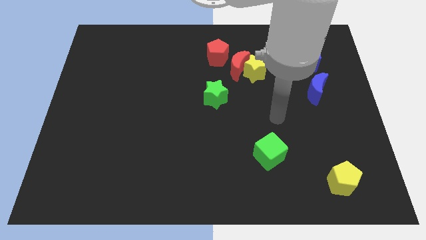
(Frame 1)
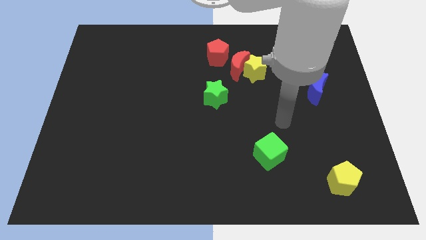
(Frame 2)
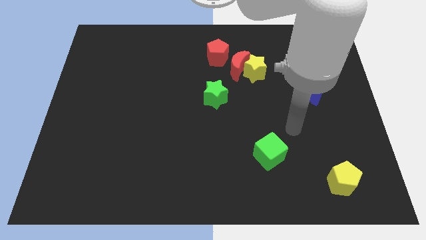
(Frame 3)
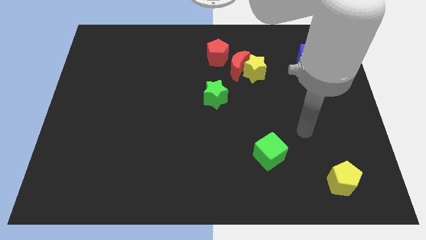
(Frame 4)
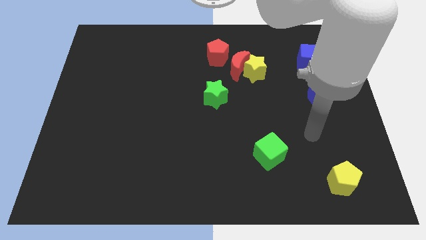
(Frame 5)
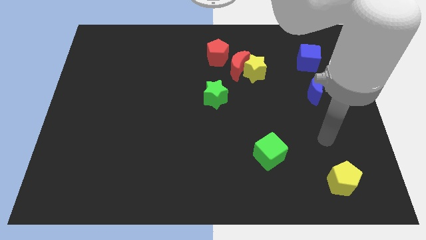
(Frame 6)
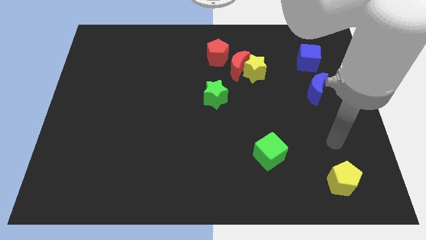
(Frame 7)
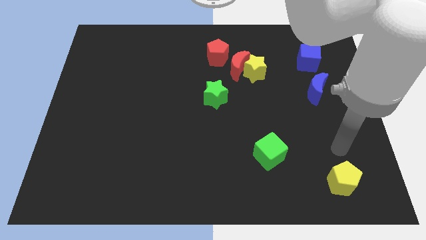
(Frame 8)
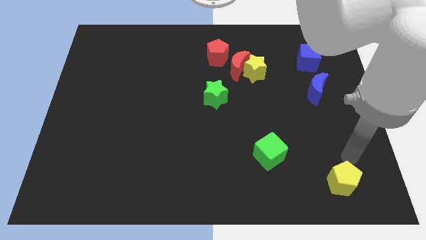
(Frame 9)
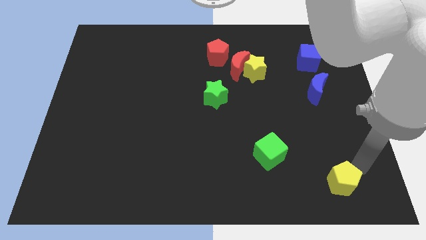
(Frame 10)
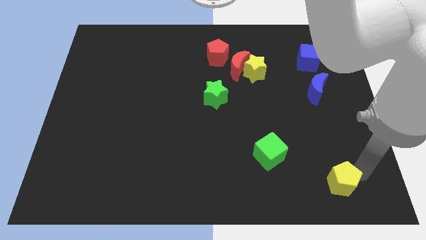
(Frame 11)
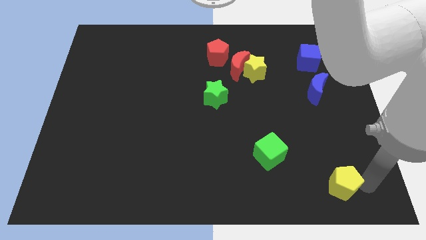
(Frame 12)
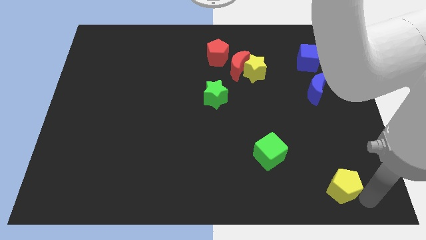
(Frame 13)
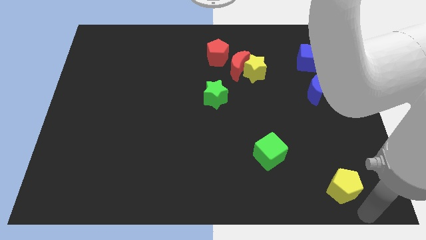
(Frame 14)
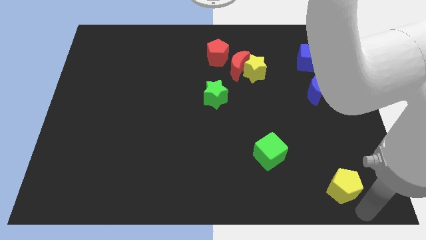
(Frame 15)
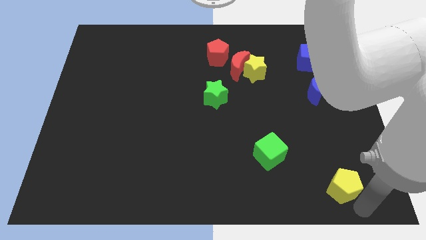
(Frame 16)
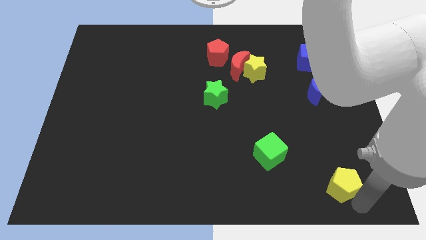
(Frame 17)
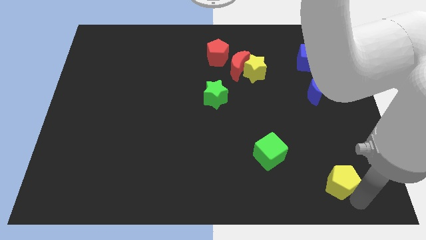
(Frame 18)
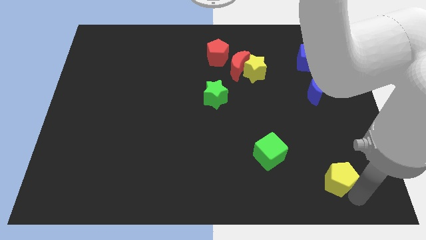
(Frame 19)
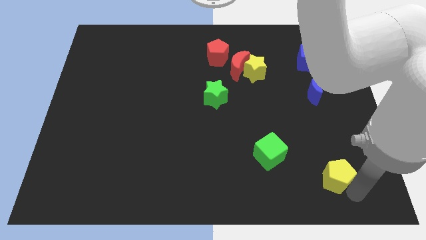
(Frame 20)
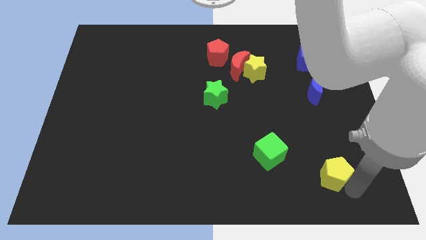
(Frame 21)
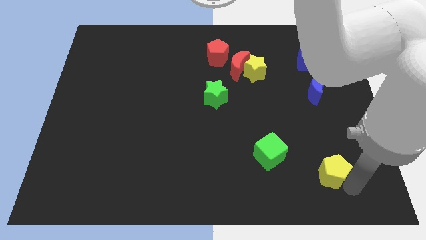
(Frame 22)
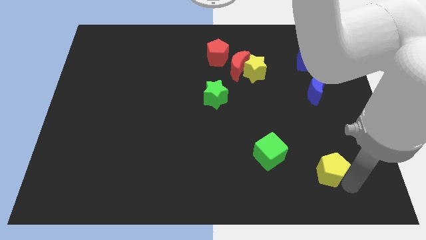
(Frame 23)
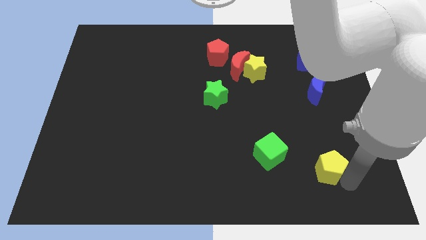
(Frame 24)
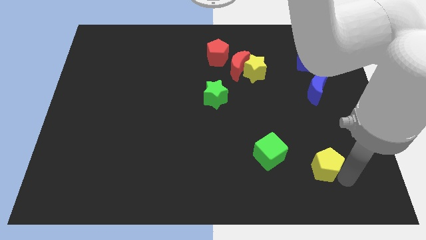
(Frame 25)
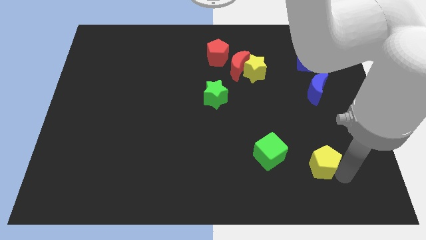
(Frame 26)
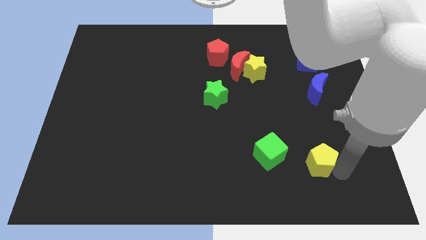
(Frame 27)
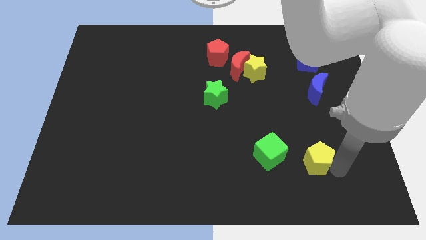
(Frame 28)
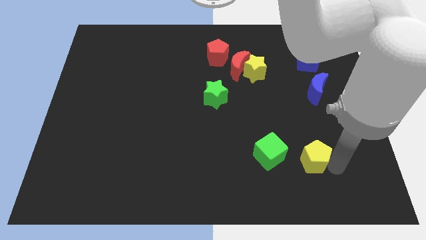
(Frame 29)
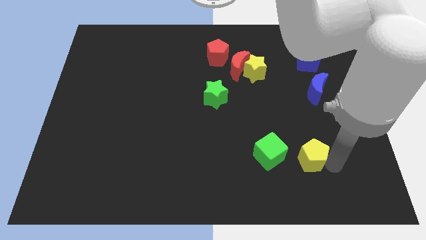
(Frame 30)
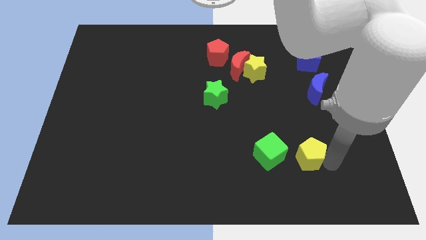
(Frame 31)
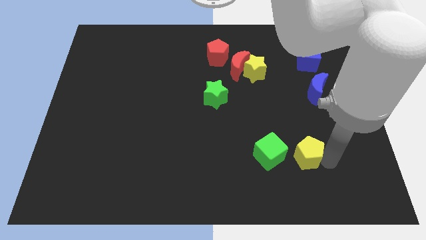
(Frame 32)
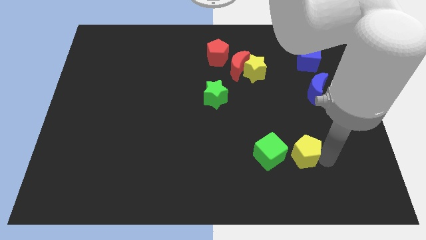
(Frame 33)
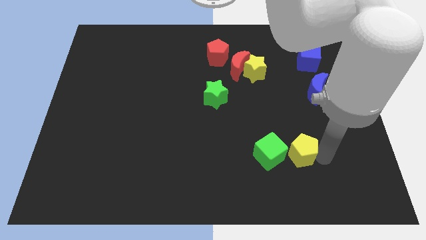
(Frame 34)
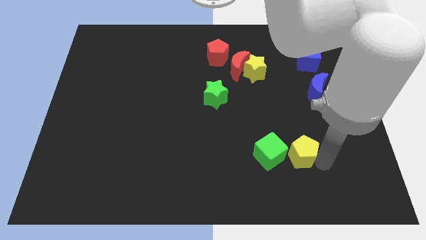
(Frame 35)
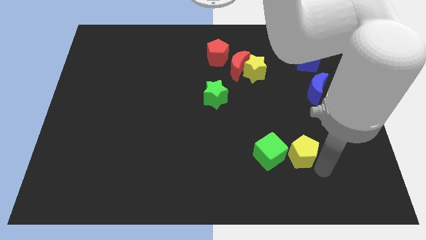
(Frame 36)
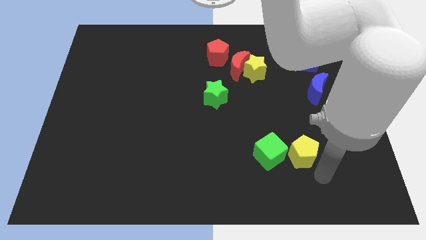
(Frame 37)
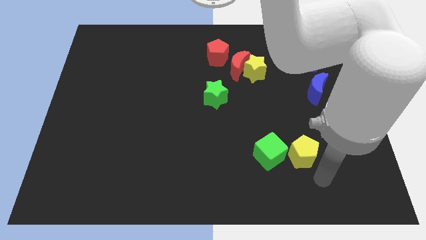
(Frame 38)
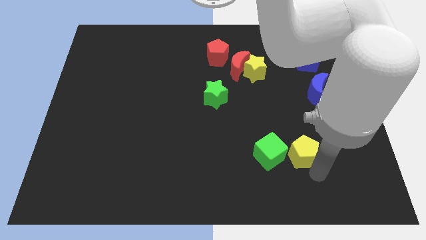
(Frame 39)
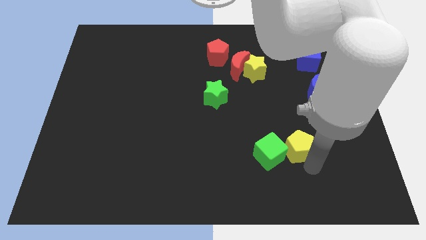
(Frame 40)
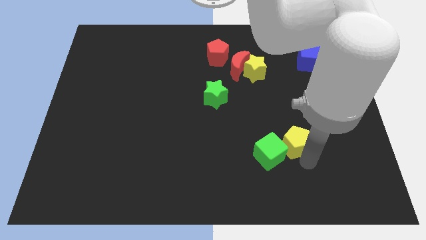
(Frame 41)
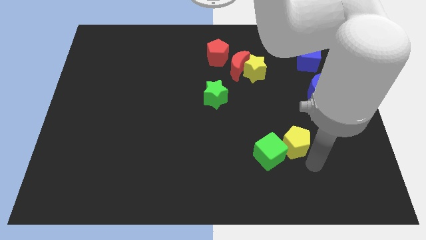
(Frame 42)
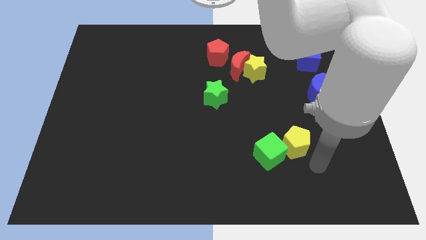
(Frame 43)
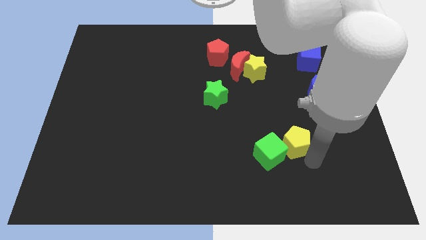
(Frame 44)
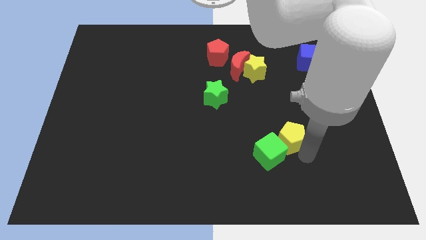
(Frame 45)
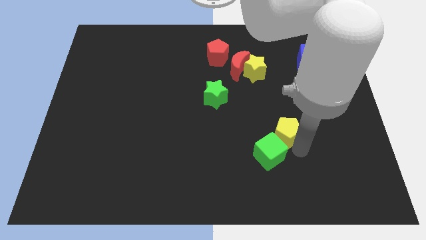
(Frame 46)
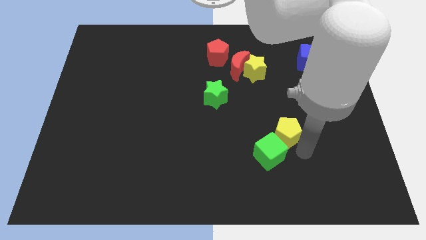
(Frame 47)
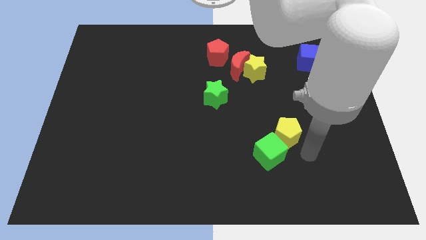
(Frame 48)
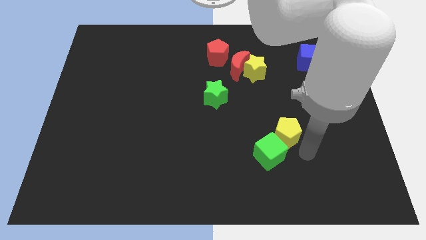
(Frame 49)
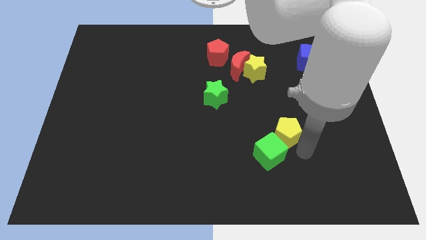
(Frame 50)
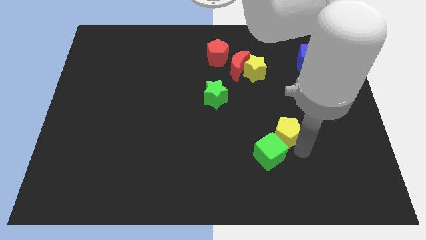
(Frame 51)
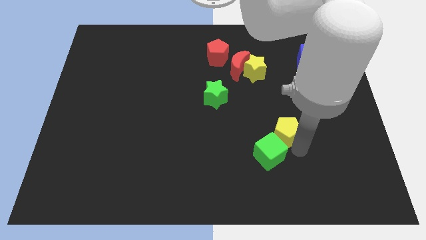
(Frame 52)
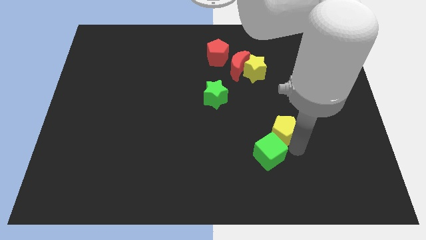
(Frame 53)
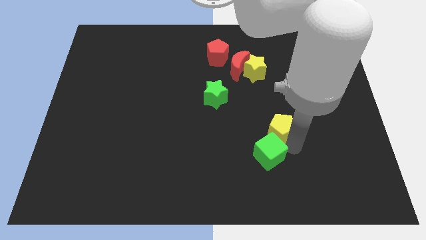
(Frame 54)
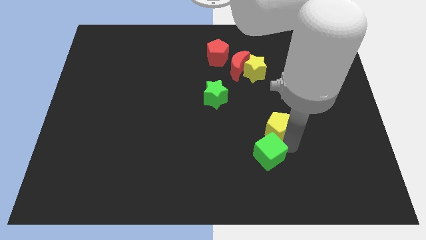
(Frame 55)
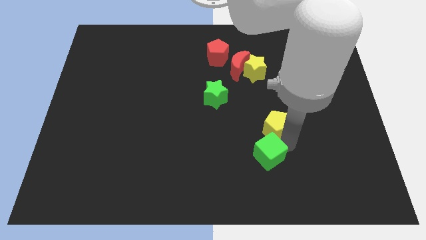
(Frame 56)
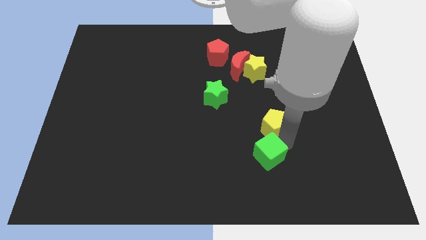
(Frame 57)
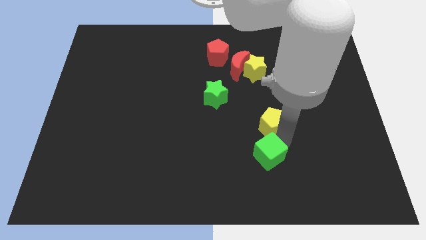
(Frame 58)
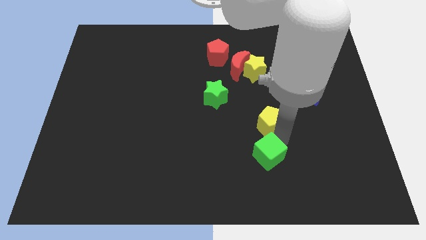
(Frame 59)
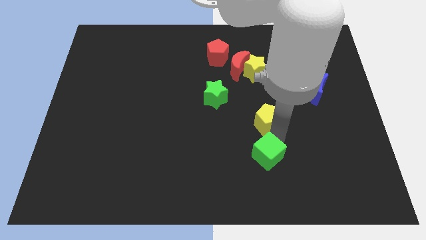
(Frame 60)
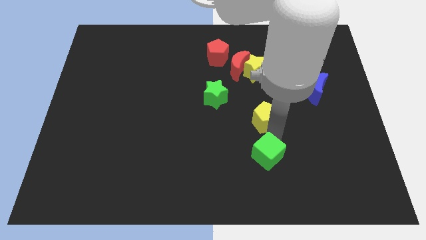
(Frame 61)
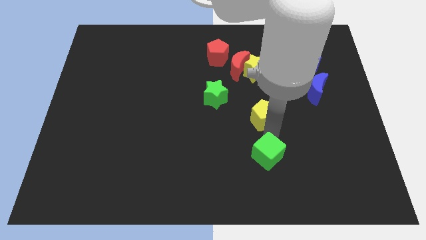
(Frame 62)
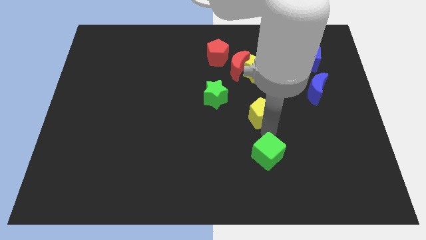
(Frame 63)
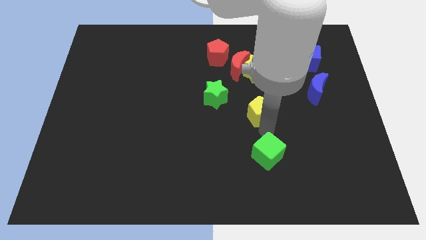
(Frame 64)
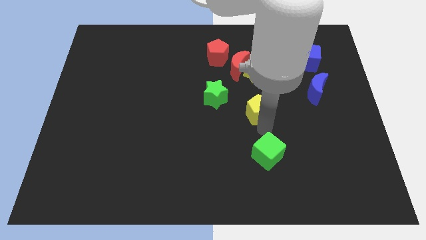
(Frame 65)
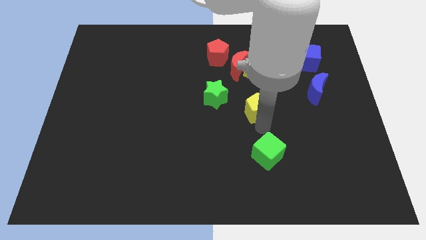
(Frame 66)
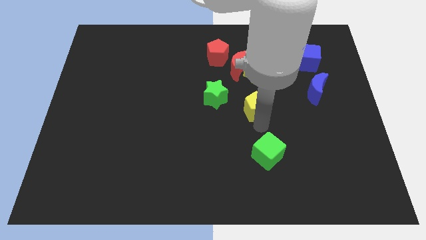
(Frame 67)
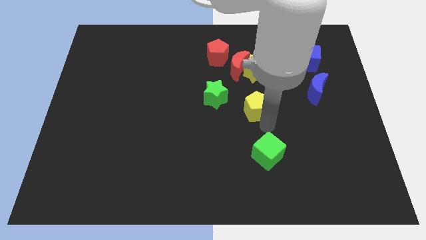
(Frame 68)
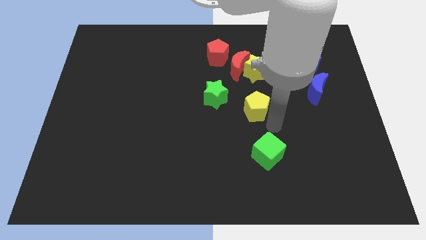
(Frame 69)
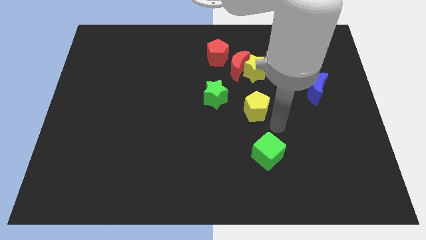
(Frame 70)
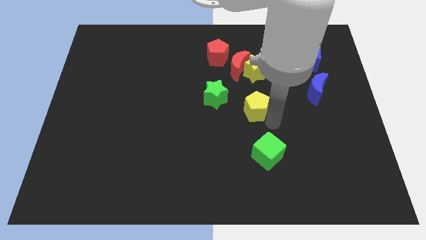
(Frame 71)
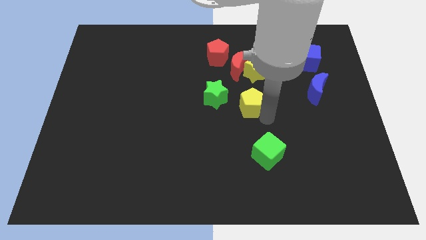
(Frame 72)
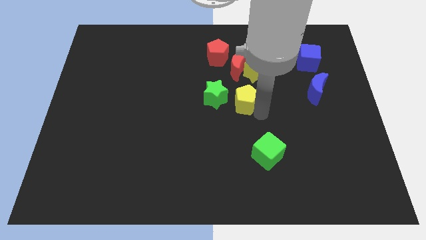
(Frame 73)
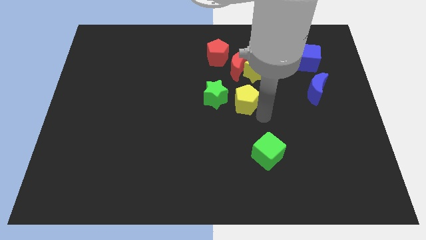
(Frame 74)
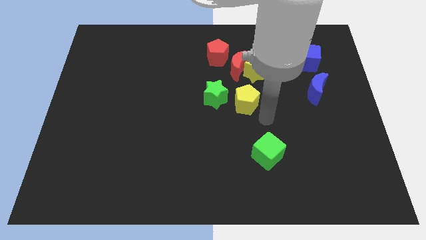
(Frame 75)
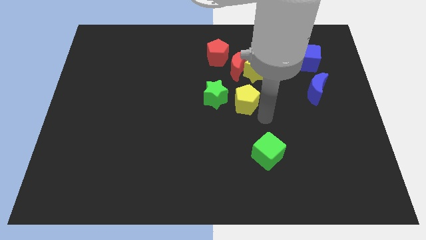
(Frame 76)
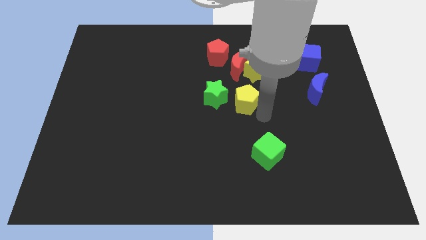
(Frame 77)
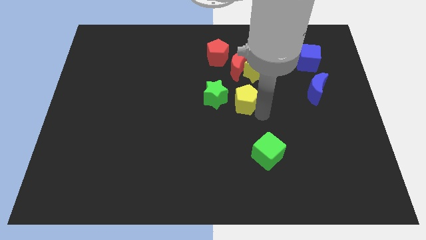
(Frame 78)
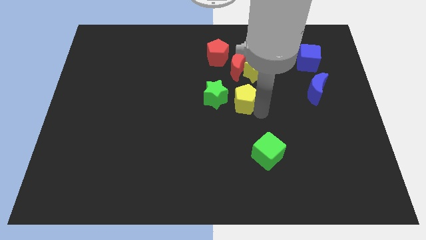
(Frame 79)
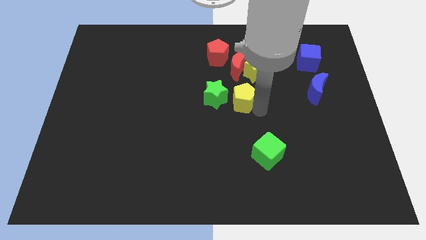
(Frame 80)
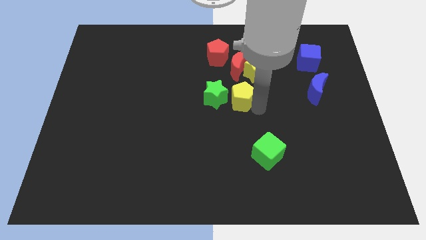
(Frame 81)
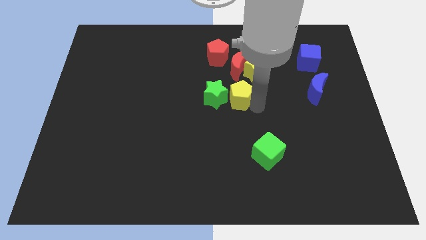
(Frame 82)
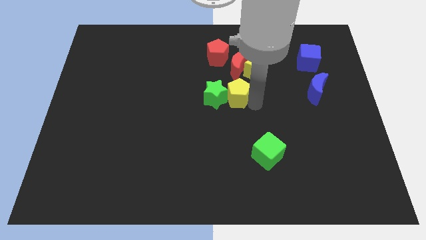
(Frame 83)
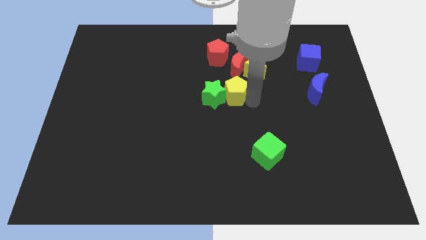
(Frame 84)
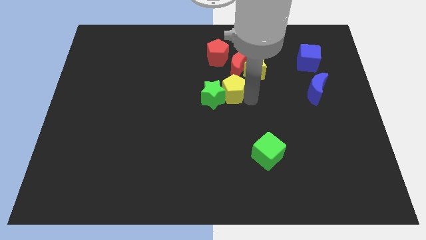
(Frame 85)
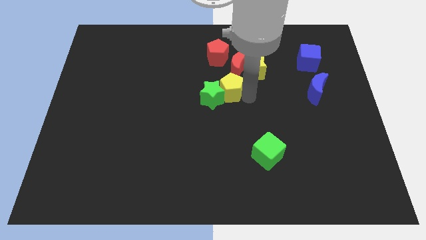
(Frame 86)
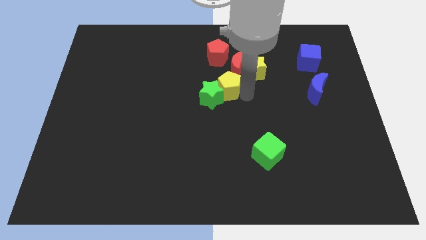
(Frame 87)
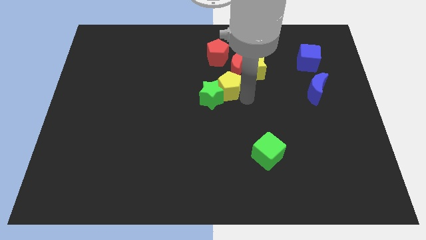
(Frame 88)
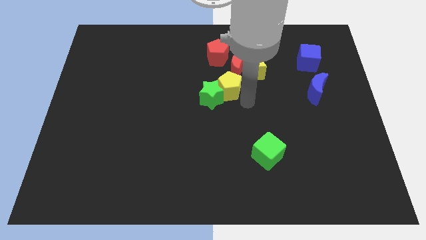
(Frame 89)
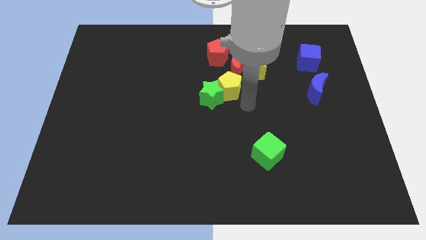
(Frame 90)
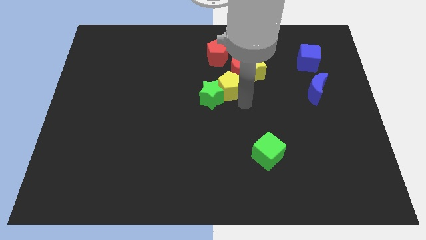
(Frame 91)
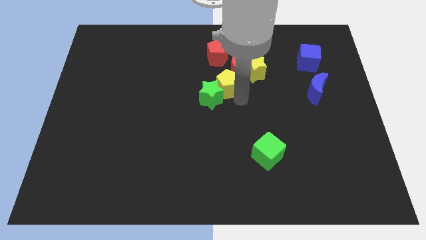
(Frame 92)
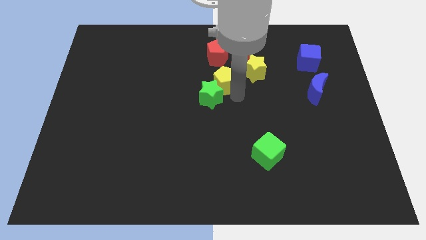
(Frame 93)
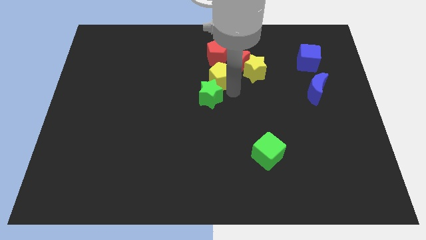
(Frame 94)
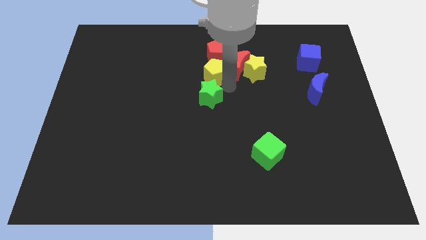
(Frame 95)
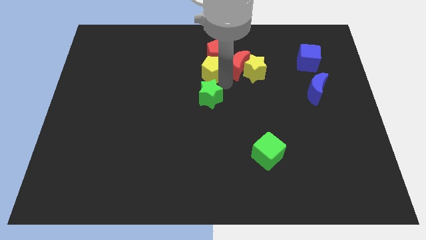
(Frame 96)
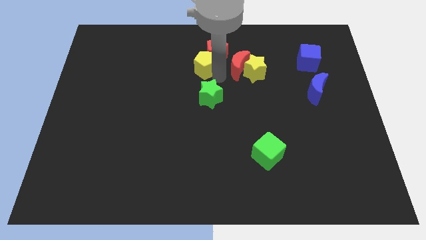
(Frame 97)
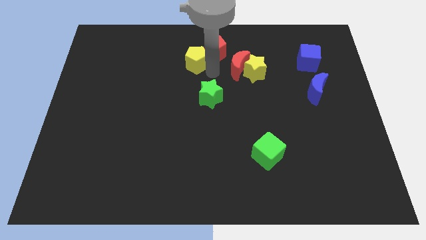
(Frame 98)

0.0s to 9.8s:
slide the yellow pentagon to the left of the red pentagon
